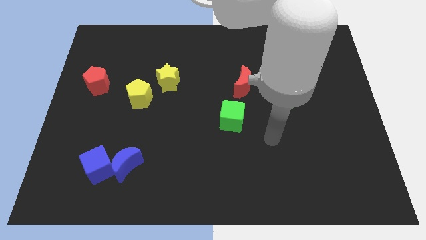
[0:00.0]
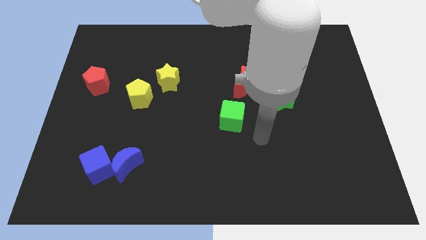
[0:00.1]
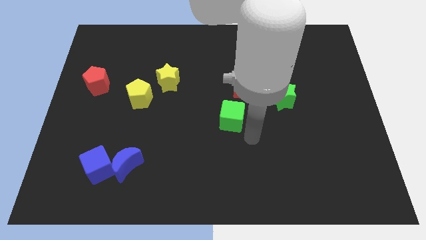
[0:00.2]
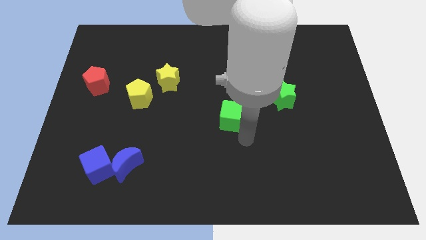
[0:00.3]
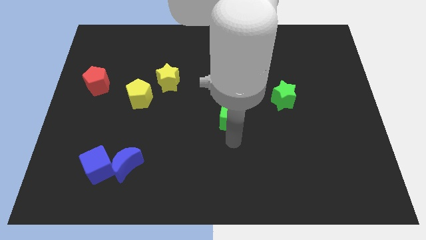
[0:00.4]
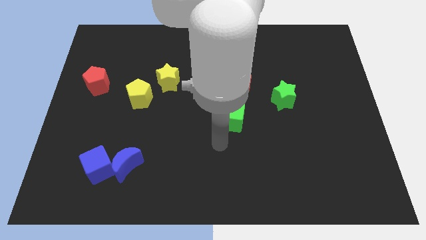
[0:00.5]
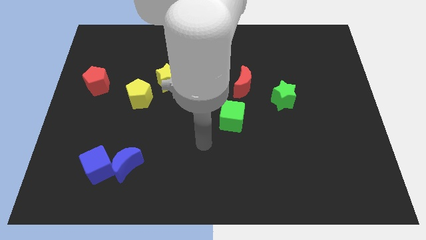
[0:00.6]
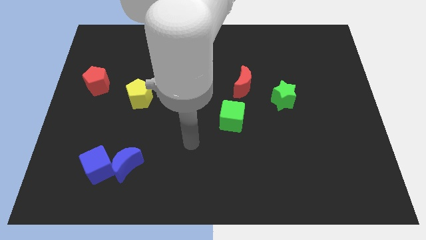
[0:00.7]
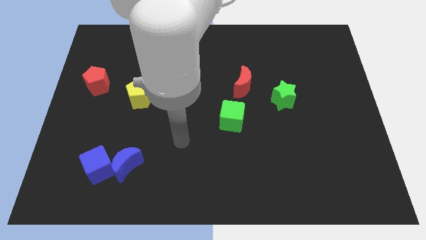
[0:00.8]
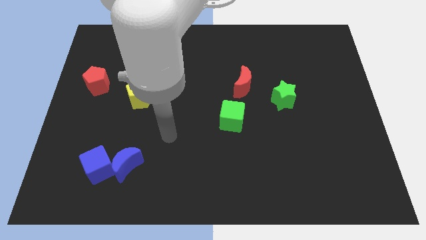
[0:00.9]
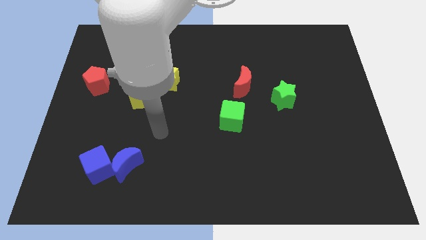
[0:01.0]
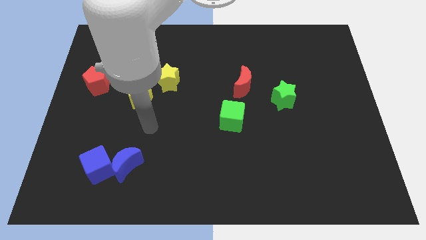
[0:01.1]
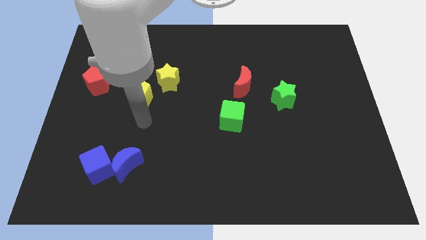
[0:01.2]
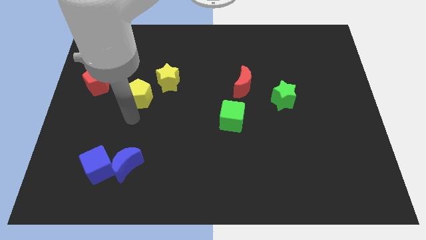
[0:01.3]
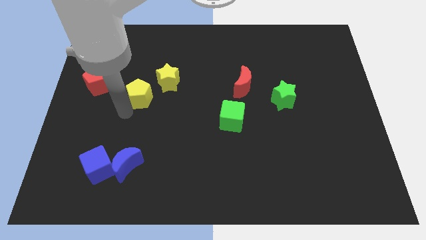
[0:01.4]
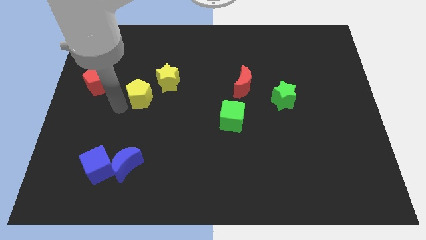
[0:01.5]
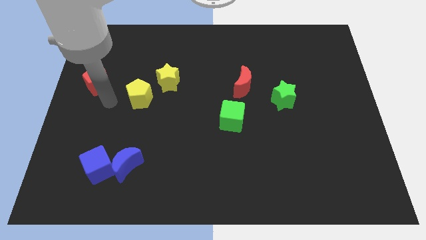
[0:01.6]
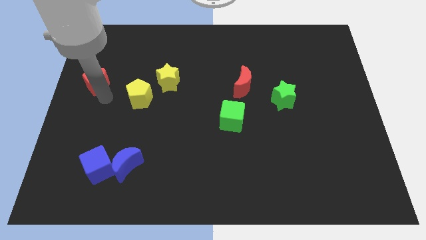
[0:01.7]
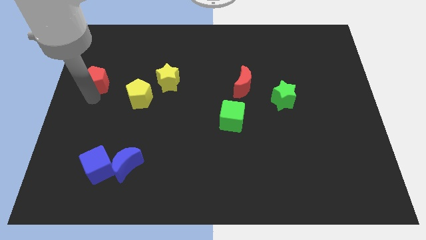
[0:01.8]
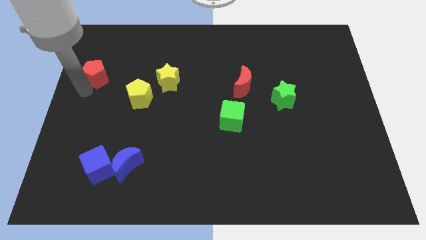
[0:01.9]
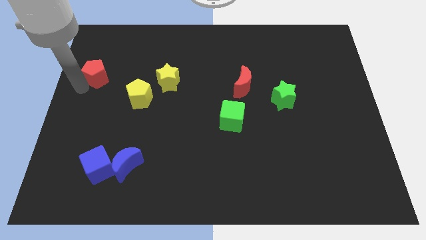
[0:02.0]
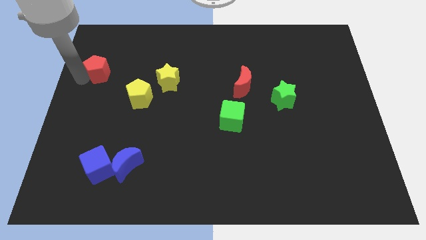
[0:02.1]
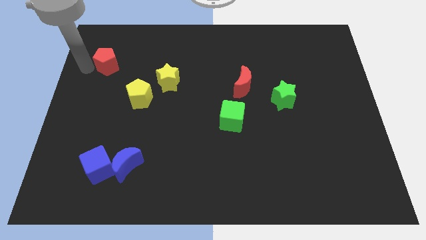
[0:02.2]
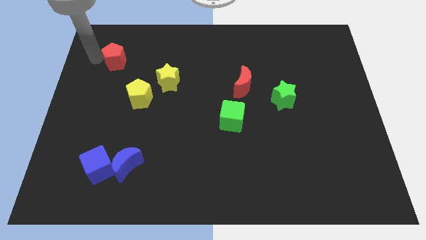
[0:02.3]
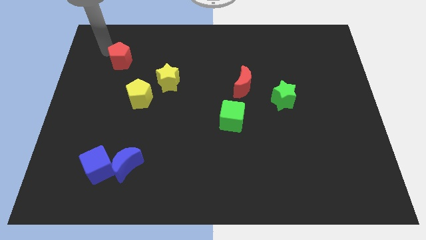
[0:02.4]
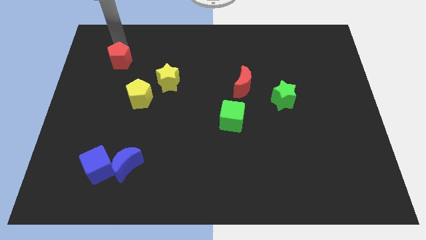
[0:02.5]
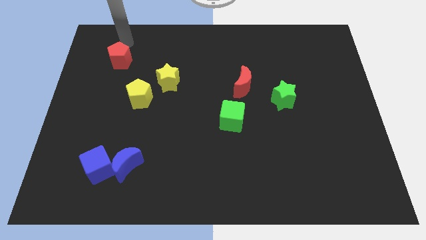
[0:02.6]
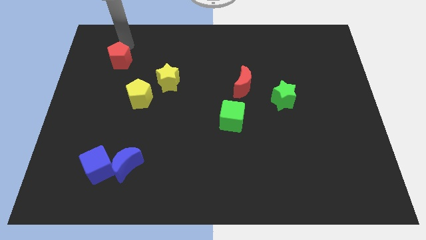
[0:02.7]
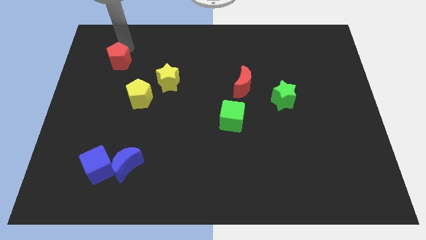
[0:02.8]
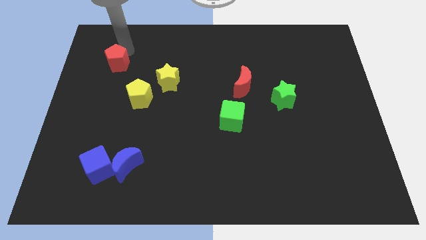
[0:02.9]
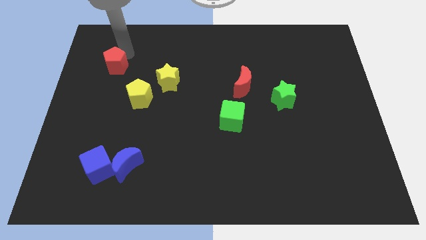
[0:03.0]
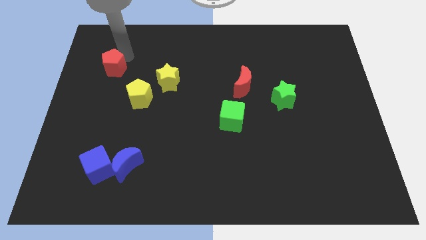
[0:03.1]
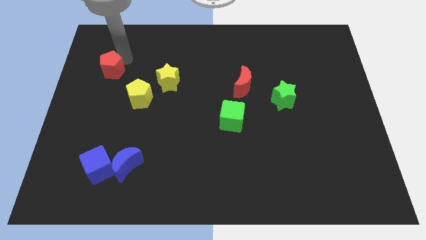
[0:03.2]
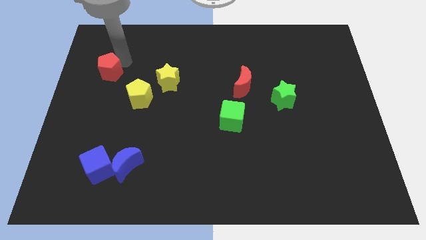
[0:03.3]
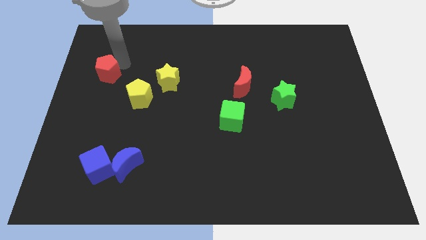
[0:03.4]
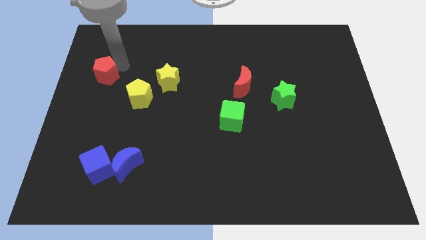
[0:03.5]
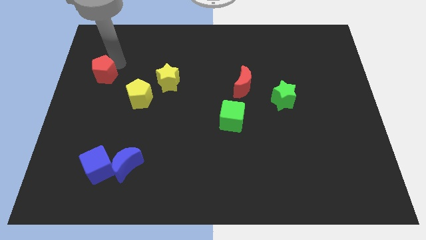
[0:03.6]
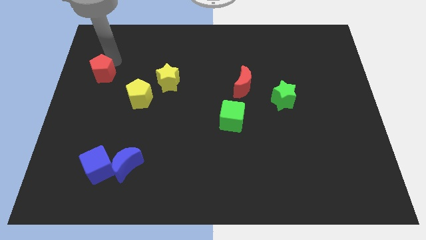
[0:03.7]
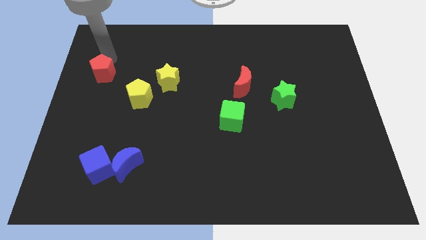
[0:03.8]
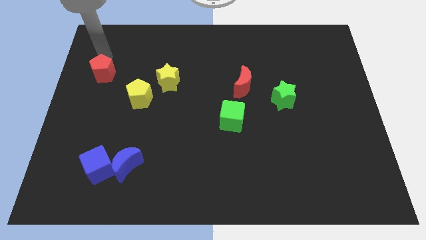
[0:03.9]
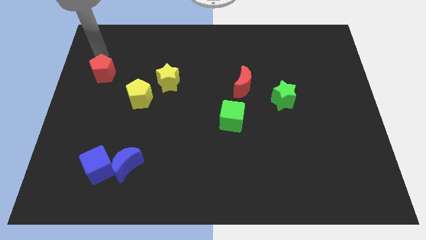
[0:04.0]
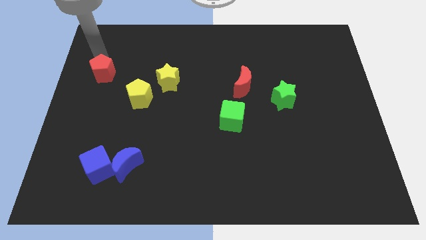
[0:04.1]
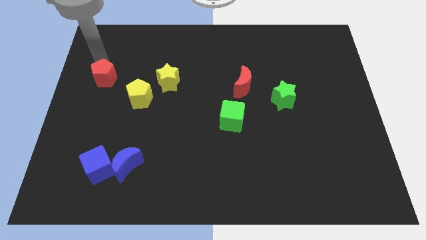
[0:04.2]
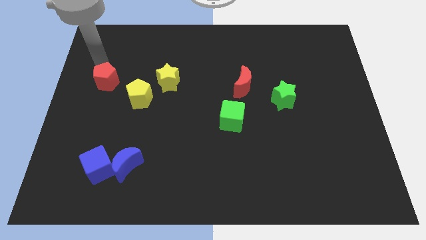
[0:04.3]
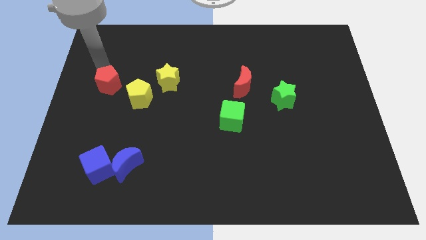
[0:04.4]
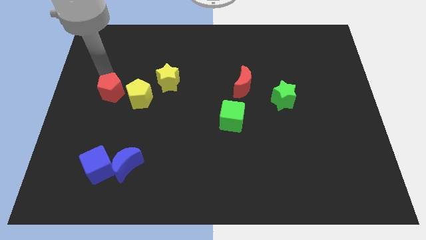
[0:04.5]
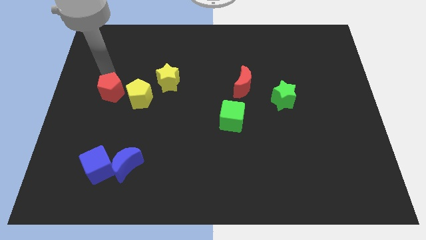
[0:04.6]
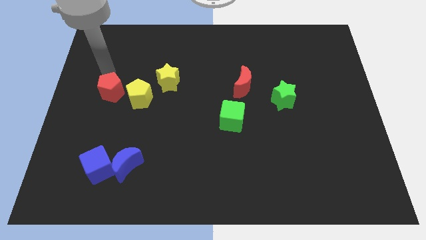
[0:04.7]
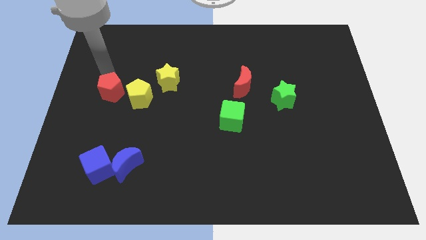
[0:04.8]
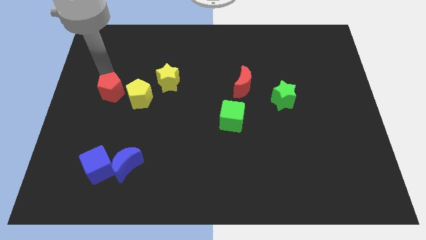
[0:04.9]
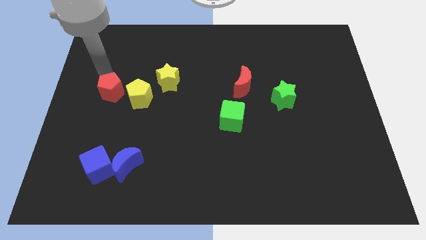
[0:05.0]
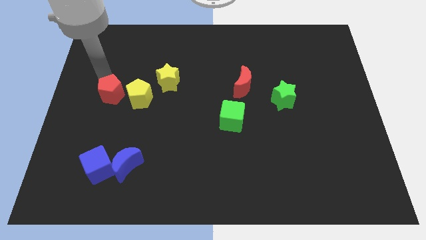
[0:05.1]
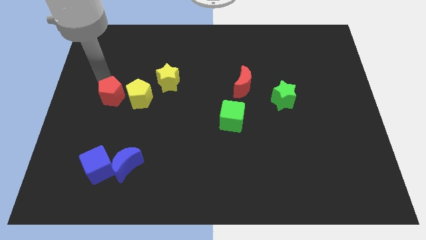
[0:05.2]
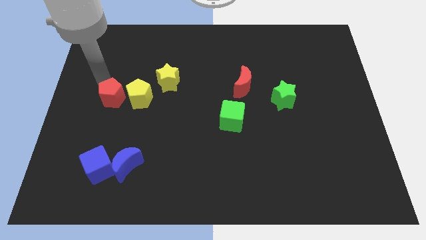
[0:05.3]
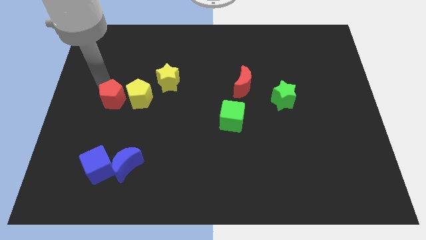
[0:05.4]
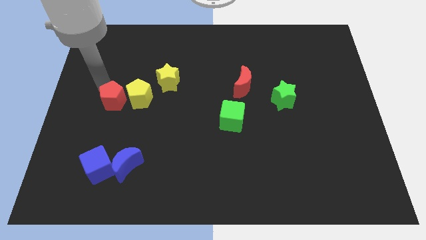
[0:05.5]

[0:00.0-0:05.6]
push the red pentagon diagonally down and right a bit

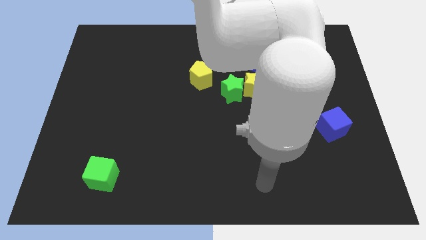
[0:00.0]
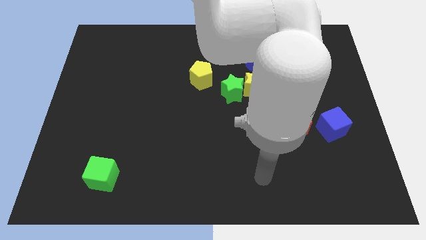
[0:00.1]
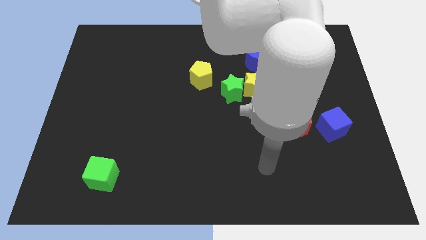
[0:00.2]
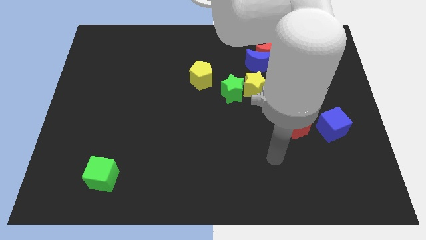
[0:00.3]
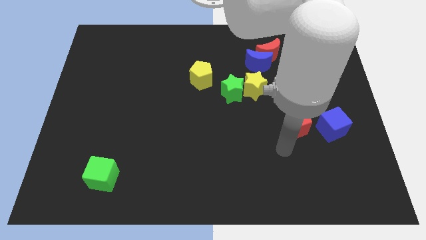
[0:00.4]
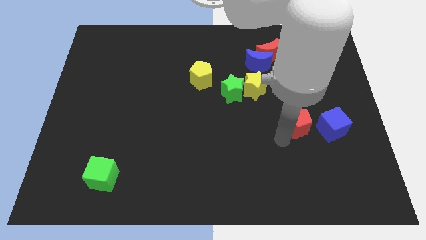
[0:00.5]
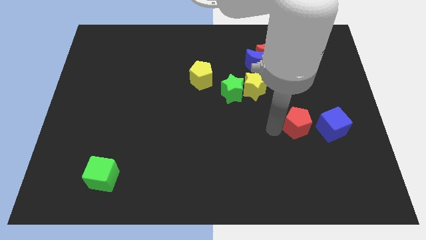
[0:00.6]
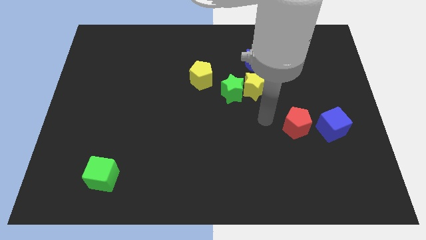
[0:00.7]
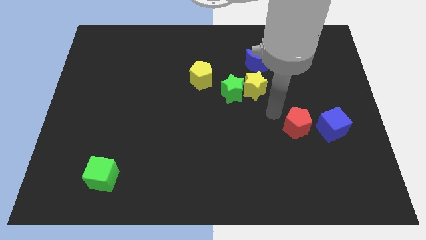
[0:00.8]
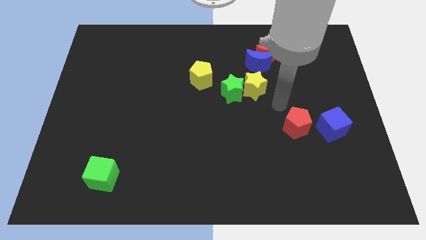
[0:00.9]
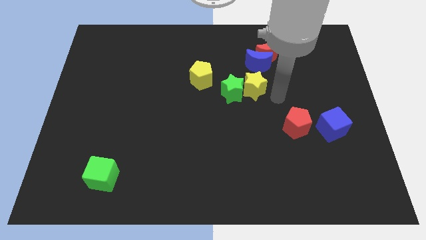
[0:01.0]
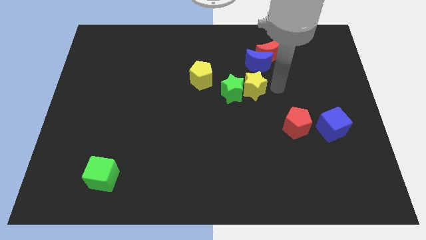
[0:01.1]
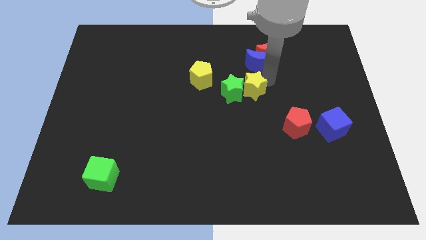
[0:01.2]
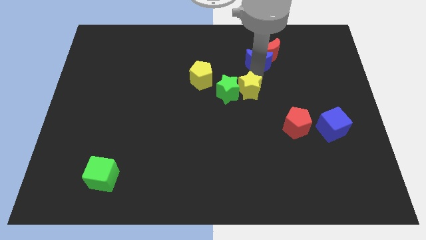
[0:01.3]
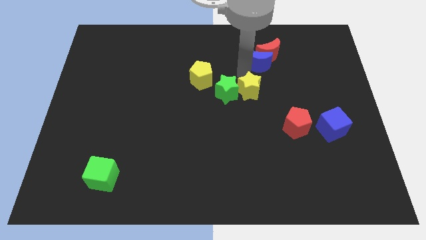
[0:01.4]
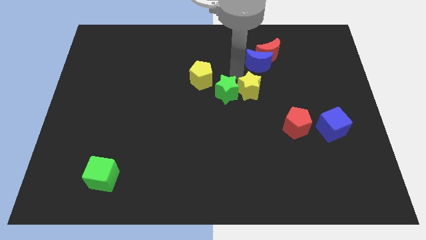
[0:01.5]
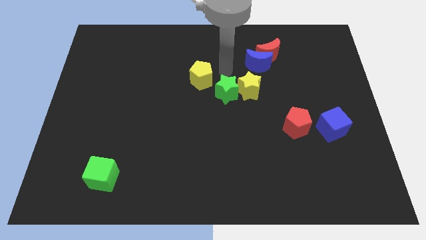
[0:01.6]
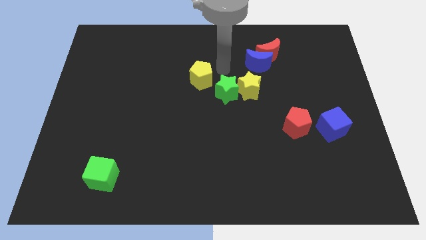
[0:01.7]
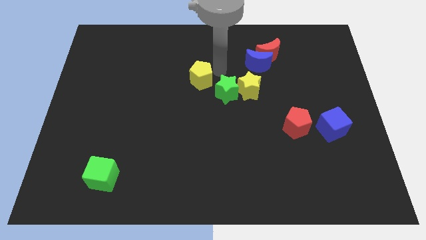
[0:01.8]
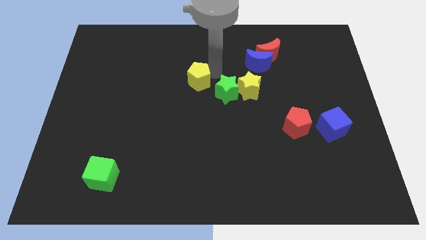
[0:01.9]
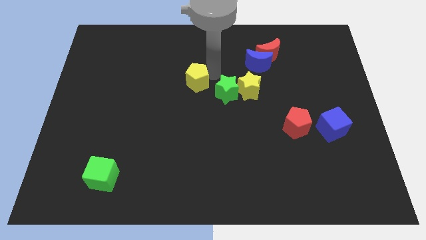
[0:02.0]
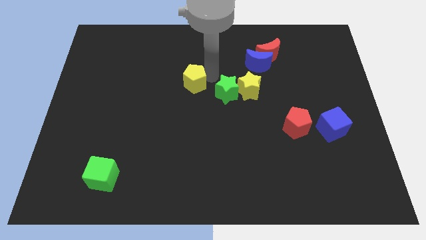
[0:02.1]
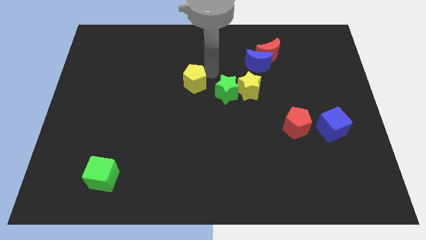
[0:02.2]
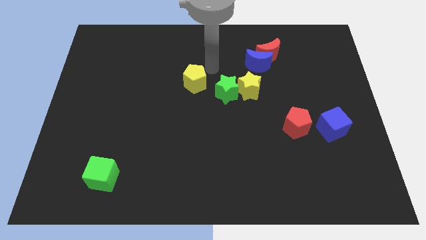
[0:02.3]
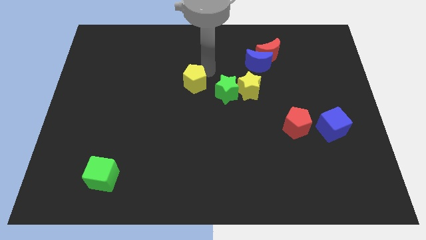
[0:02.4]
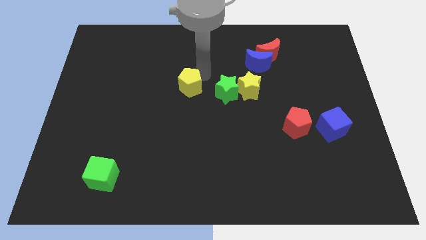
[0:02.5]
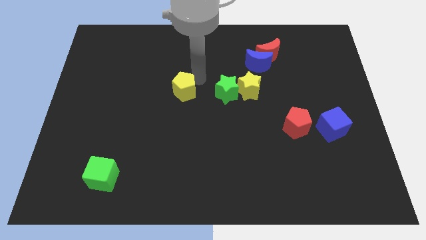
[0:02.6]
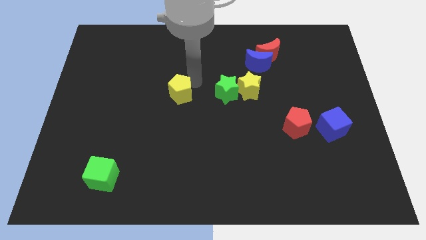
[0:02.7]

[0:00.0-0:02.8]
slightly push the yellow pentagon downwards and left
